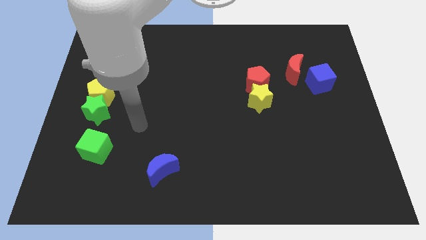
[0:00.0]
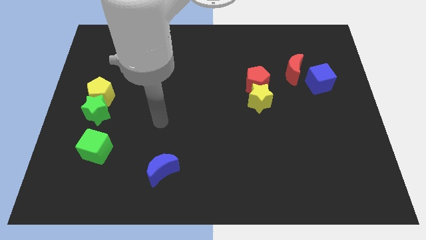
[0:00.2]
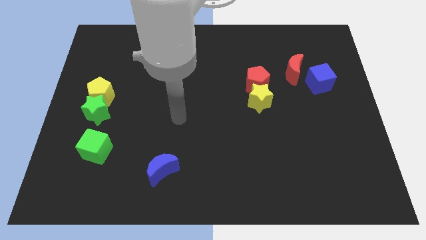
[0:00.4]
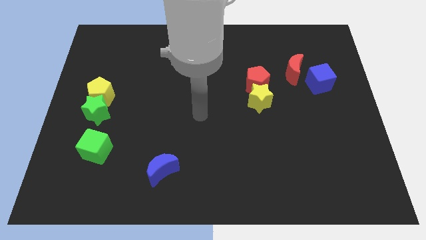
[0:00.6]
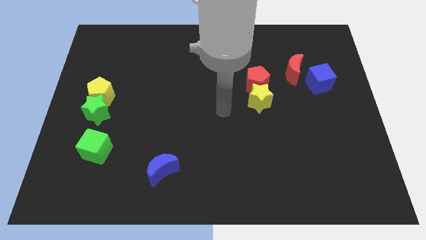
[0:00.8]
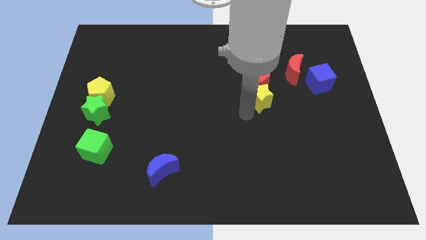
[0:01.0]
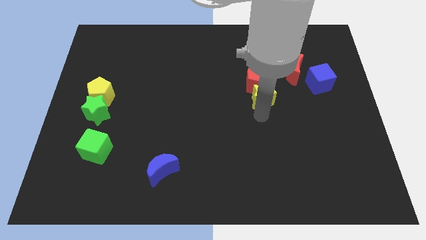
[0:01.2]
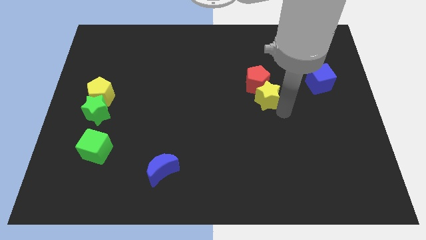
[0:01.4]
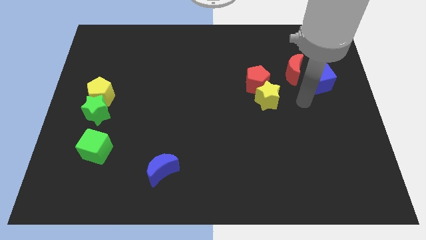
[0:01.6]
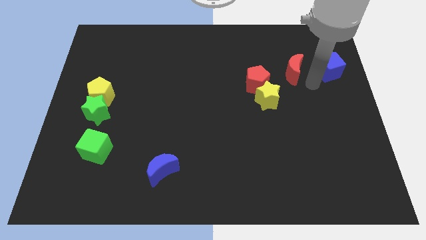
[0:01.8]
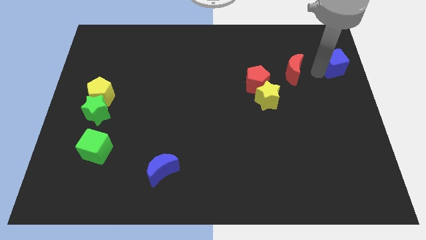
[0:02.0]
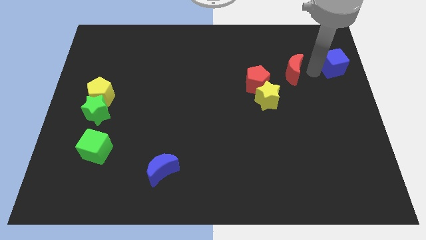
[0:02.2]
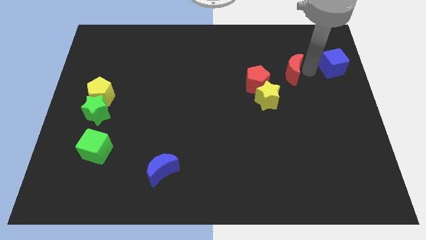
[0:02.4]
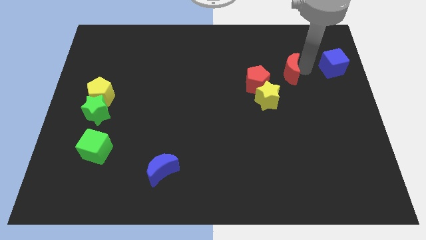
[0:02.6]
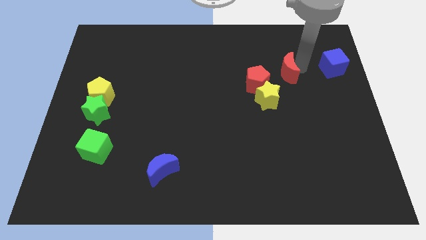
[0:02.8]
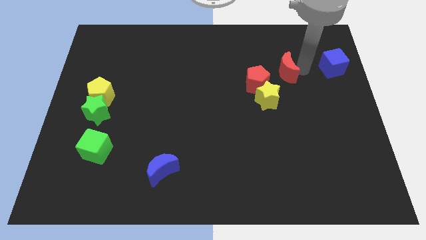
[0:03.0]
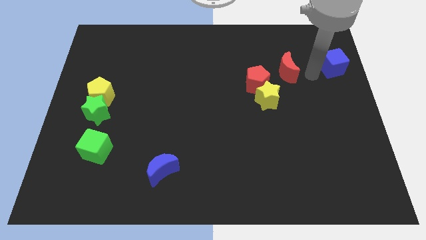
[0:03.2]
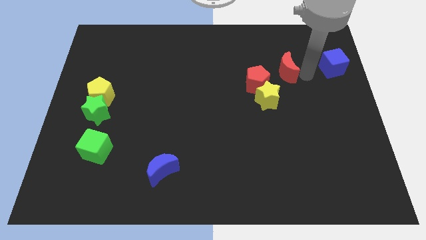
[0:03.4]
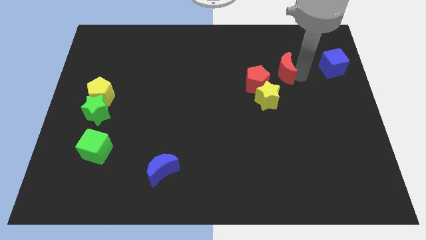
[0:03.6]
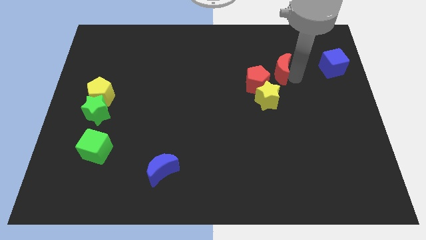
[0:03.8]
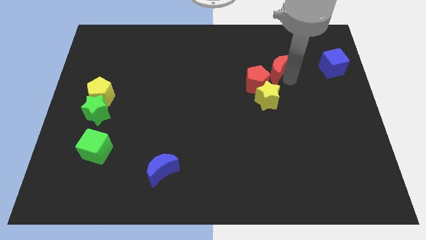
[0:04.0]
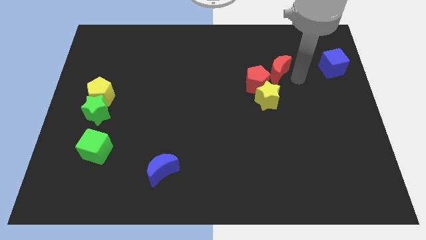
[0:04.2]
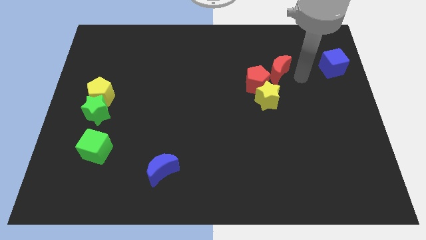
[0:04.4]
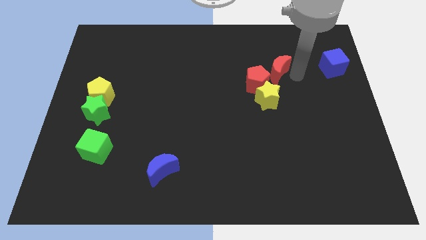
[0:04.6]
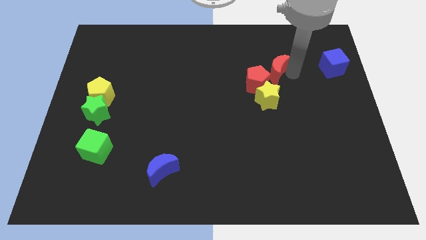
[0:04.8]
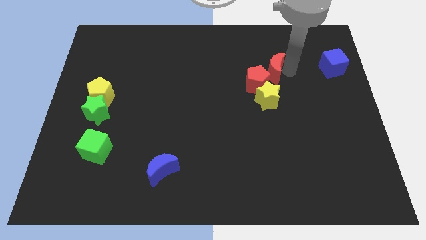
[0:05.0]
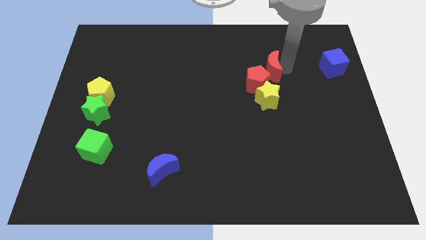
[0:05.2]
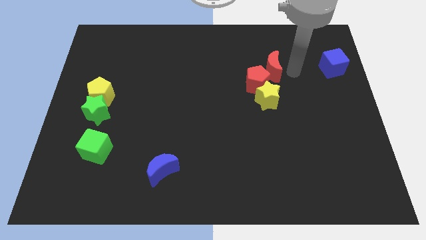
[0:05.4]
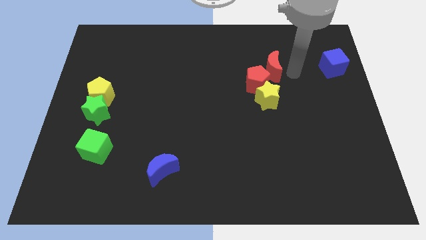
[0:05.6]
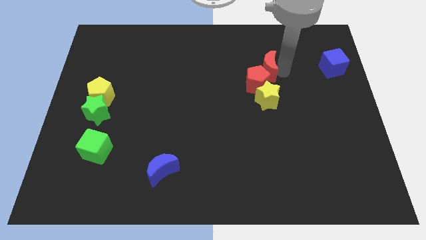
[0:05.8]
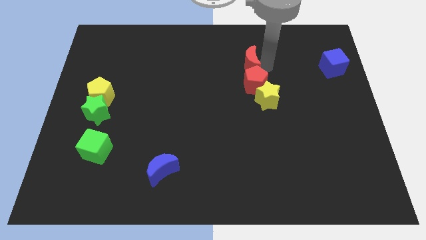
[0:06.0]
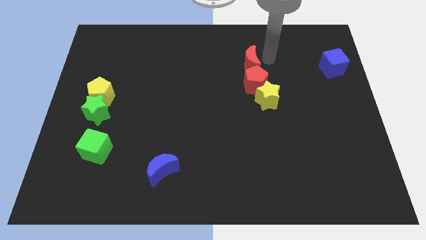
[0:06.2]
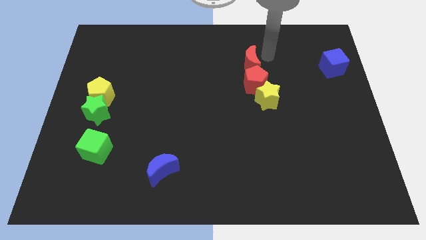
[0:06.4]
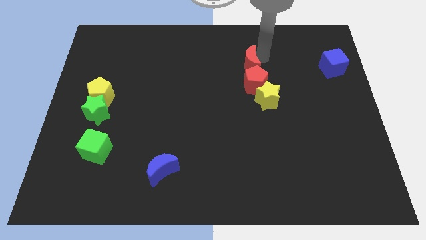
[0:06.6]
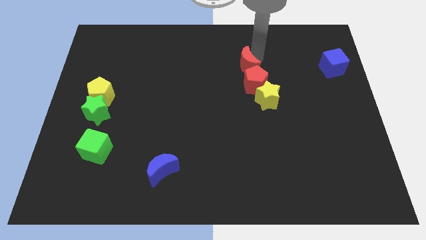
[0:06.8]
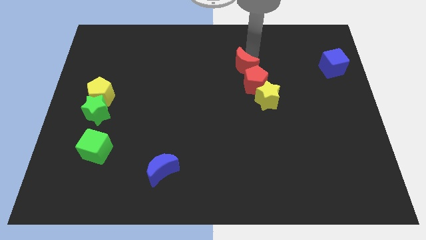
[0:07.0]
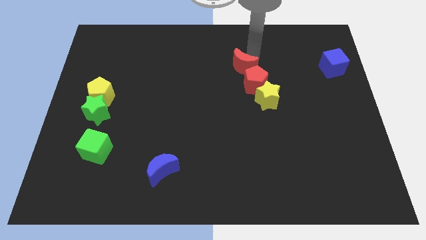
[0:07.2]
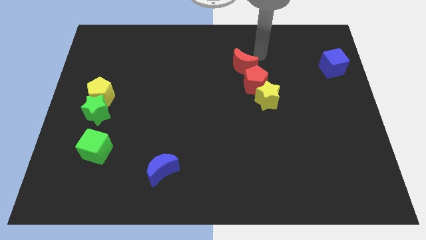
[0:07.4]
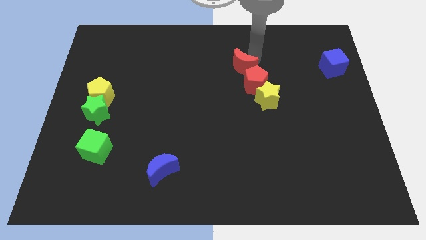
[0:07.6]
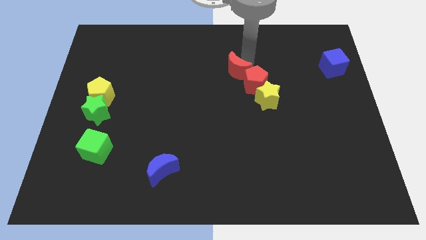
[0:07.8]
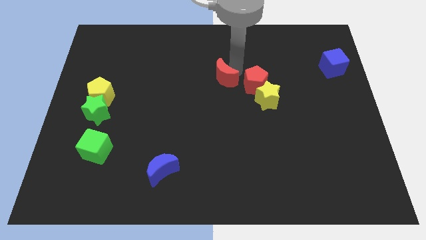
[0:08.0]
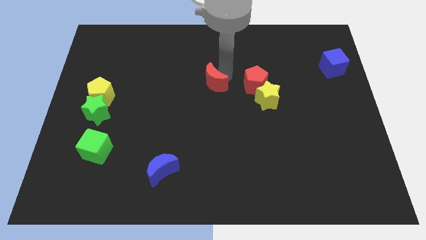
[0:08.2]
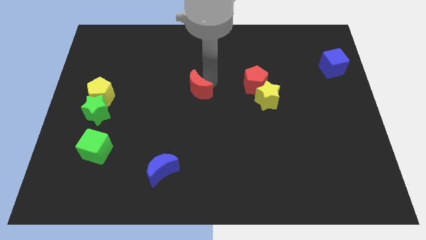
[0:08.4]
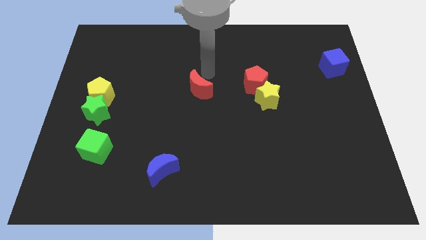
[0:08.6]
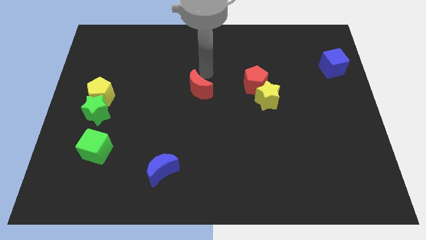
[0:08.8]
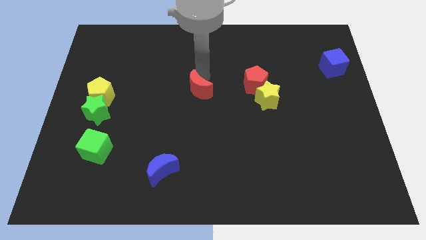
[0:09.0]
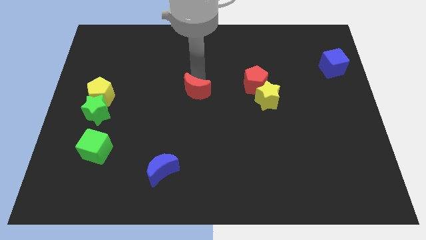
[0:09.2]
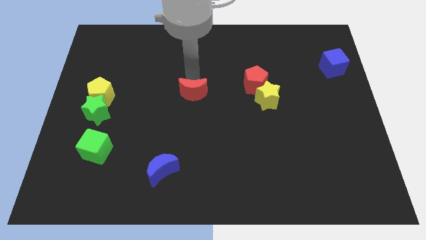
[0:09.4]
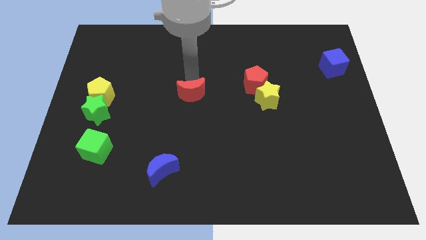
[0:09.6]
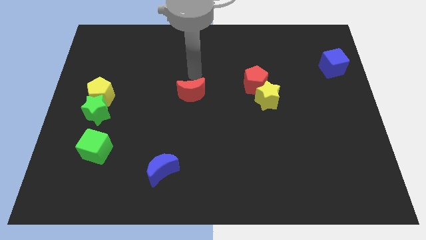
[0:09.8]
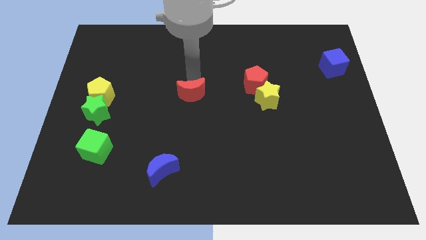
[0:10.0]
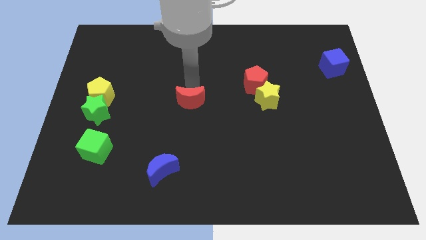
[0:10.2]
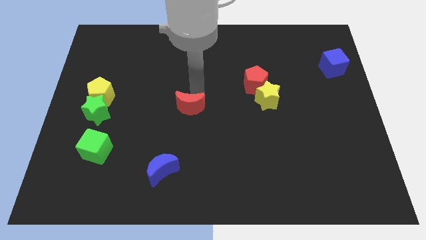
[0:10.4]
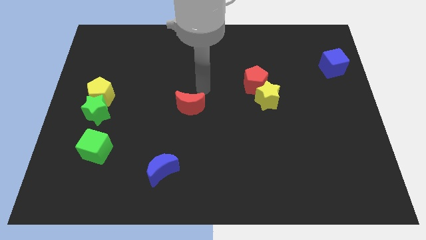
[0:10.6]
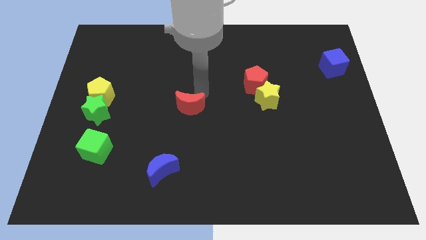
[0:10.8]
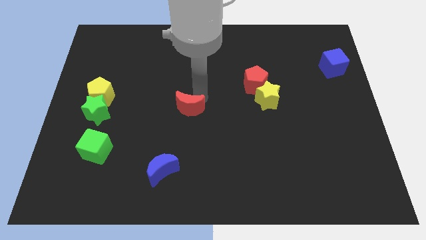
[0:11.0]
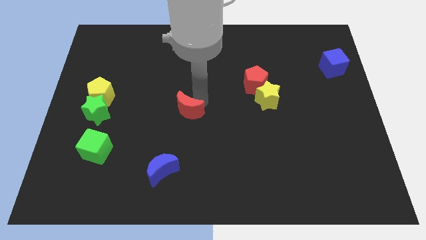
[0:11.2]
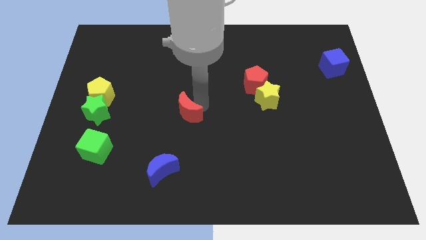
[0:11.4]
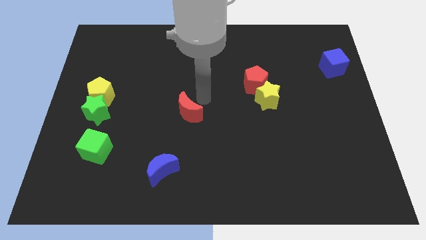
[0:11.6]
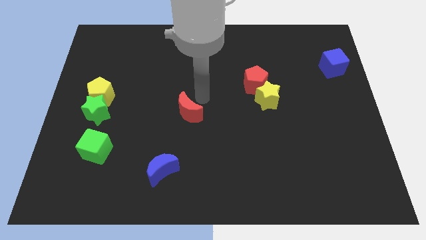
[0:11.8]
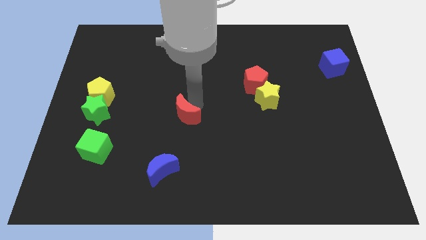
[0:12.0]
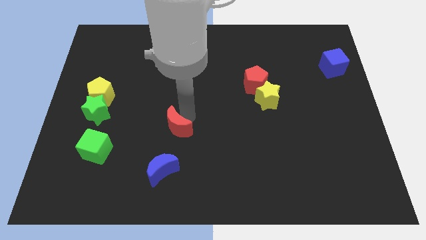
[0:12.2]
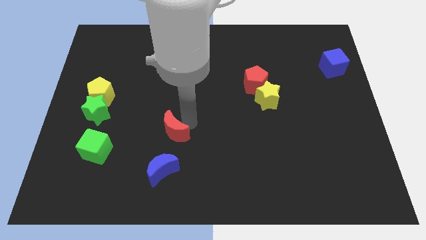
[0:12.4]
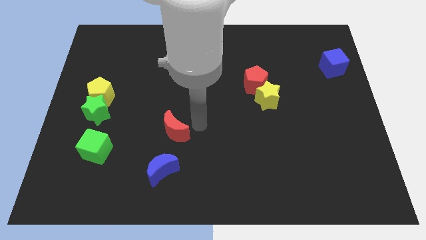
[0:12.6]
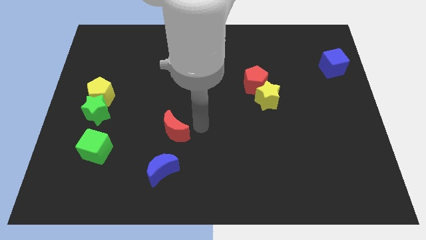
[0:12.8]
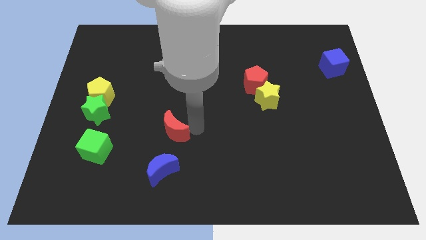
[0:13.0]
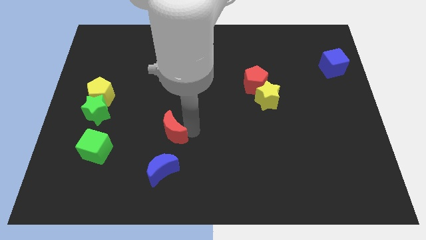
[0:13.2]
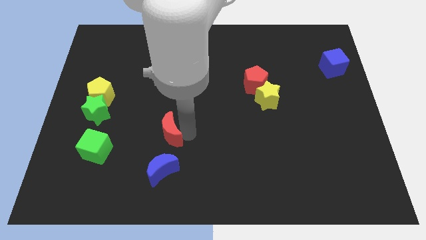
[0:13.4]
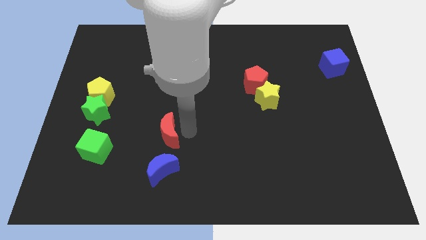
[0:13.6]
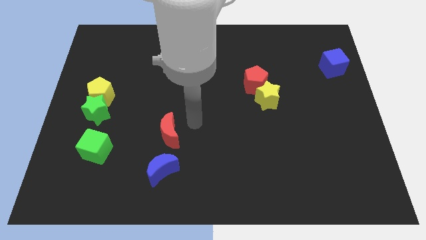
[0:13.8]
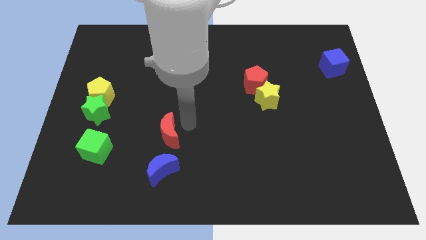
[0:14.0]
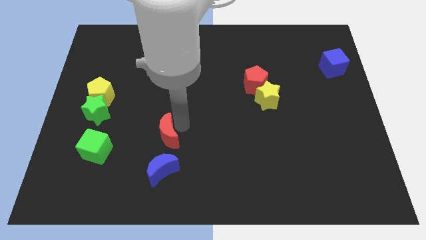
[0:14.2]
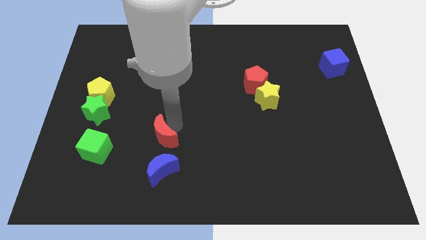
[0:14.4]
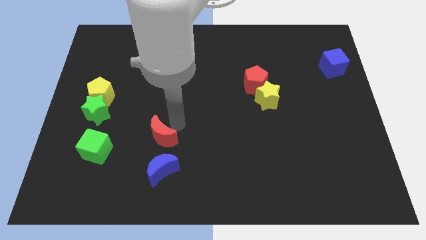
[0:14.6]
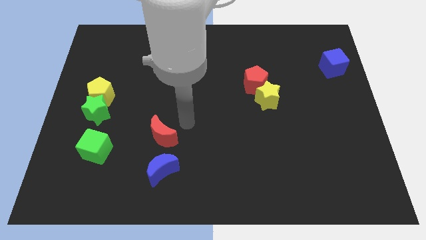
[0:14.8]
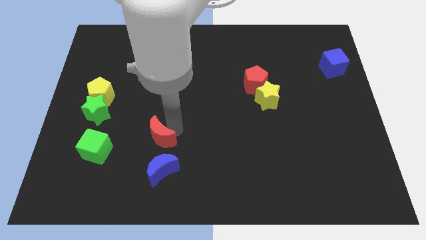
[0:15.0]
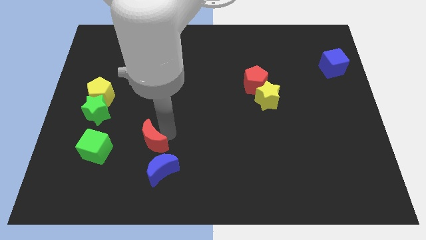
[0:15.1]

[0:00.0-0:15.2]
slide the red moon to the top left of the blue moon
